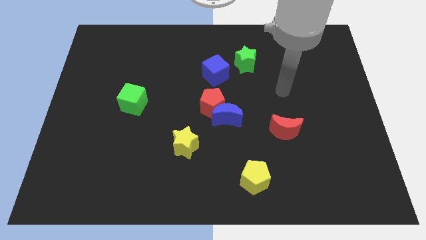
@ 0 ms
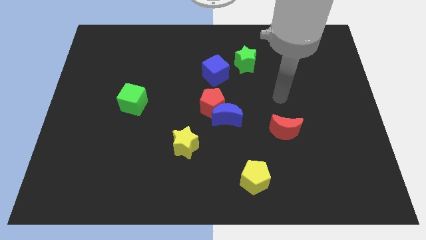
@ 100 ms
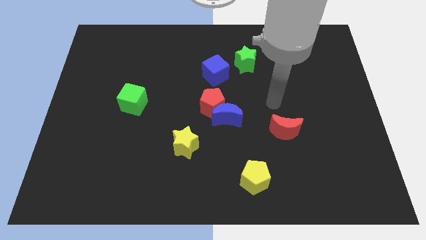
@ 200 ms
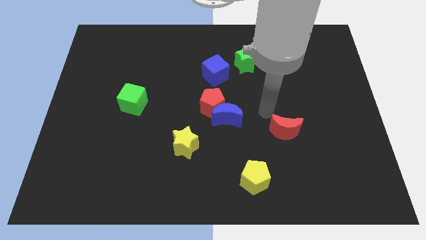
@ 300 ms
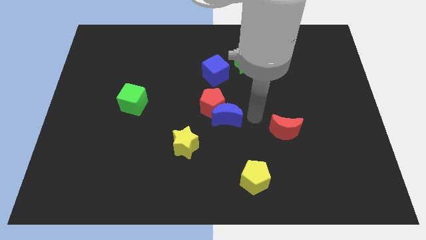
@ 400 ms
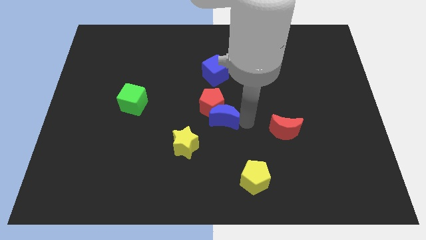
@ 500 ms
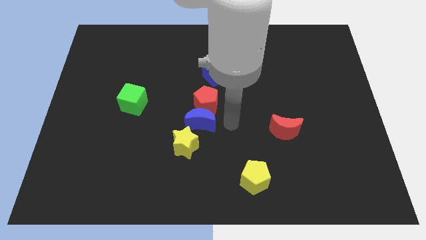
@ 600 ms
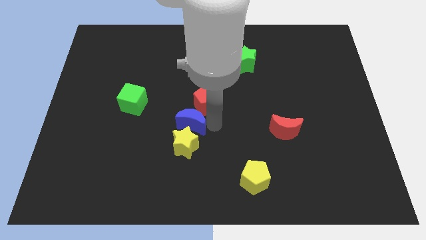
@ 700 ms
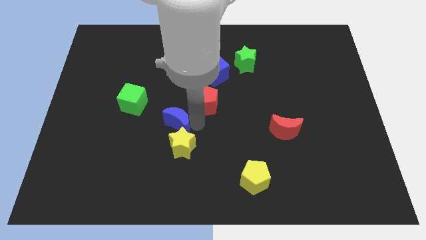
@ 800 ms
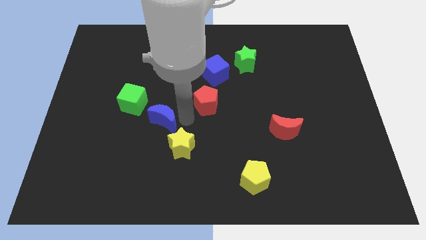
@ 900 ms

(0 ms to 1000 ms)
separate the red pentagon from the blue moon

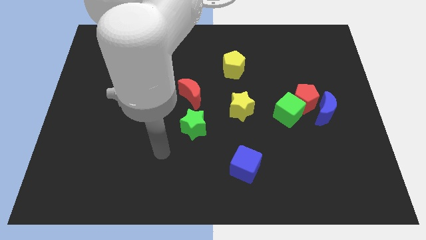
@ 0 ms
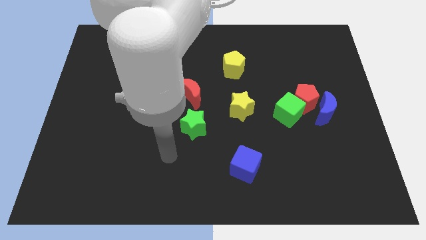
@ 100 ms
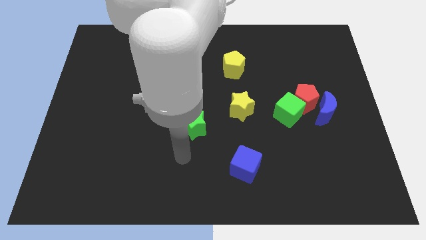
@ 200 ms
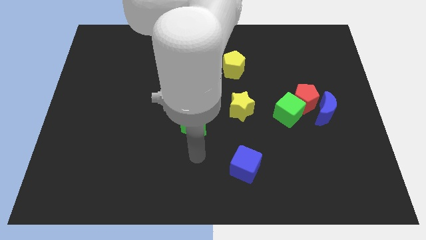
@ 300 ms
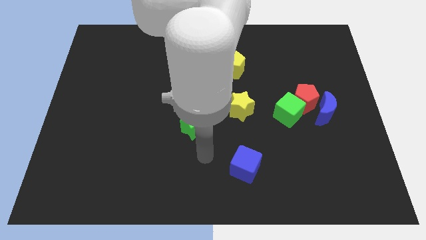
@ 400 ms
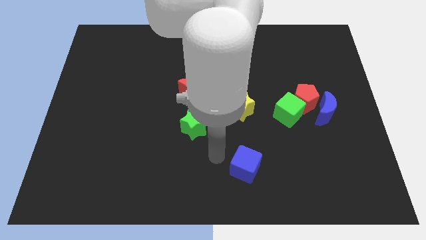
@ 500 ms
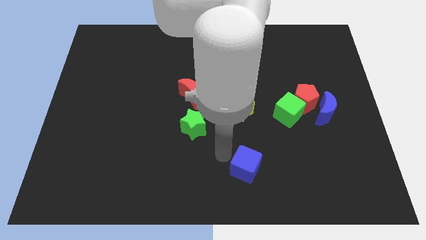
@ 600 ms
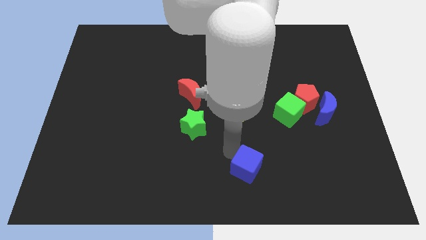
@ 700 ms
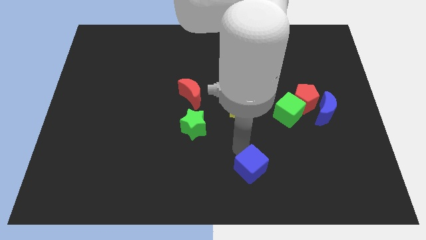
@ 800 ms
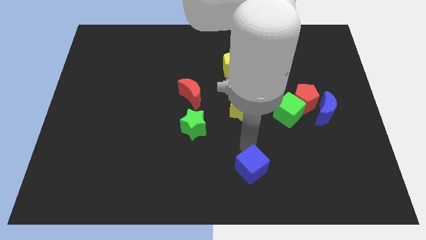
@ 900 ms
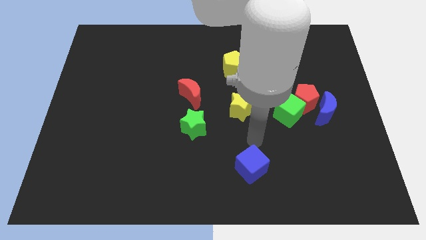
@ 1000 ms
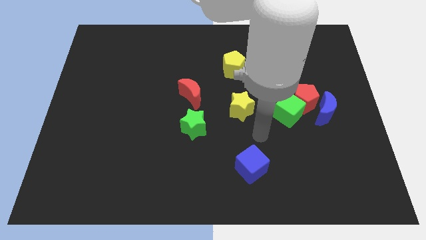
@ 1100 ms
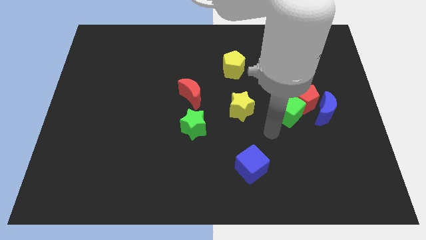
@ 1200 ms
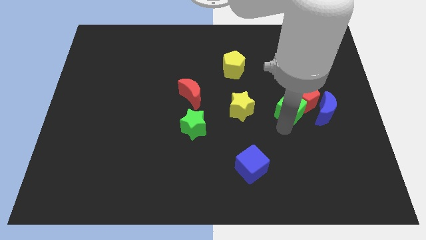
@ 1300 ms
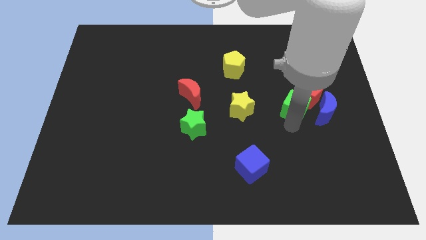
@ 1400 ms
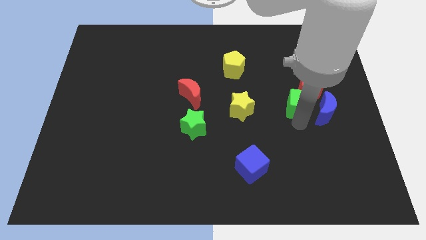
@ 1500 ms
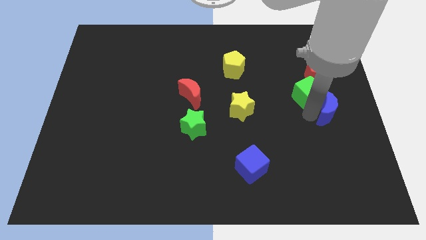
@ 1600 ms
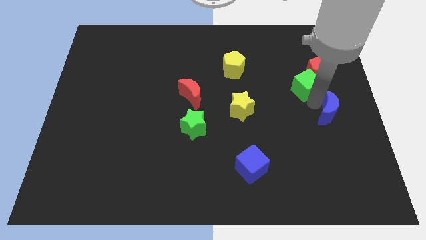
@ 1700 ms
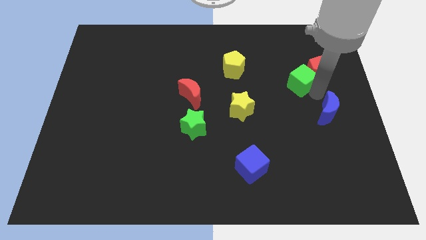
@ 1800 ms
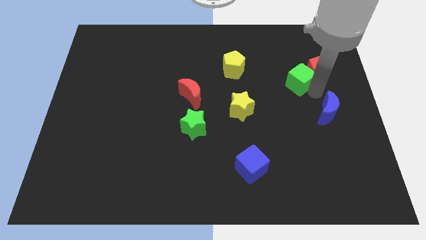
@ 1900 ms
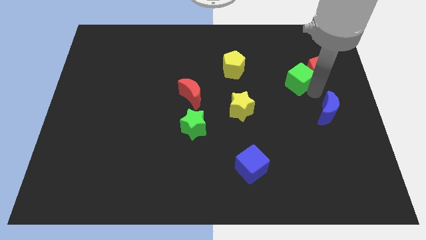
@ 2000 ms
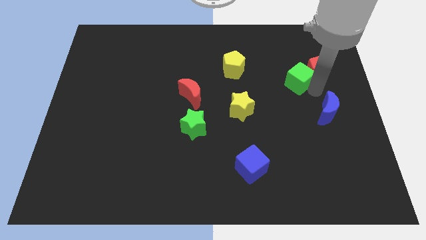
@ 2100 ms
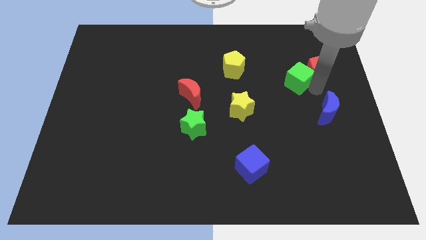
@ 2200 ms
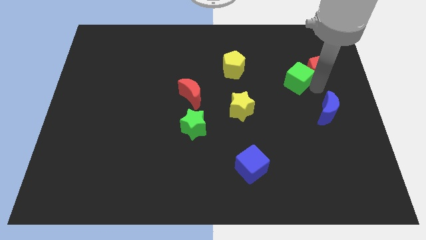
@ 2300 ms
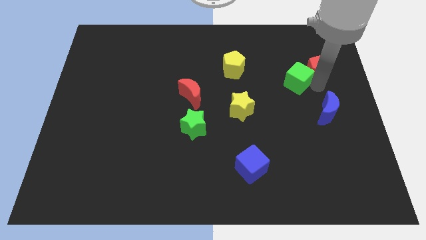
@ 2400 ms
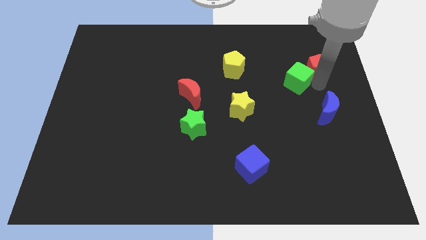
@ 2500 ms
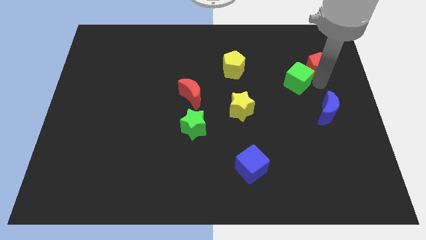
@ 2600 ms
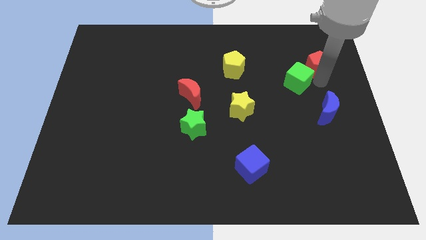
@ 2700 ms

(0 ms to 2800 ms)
move the red pentagon away from the green cube and blue moon

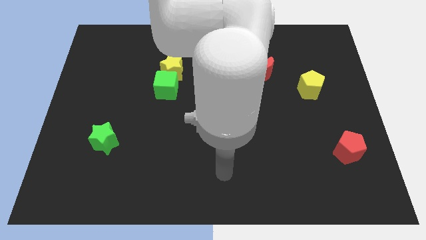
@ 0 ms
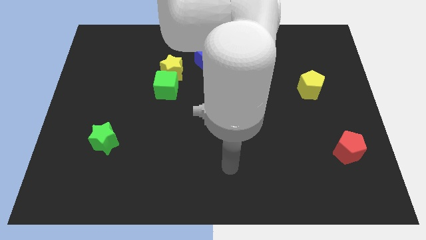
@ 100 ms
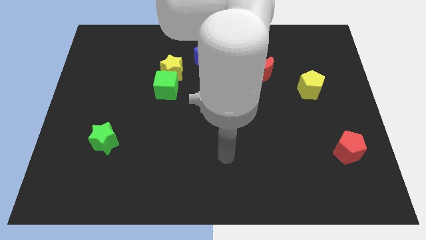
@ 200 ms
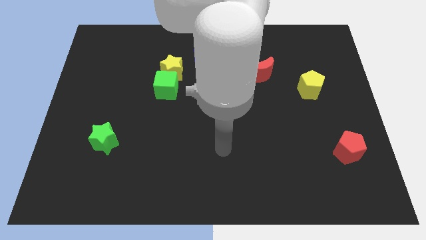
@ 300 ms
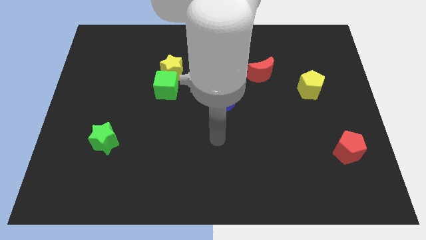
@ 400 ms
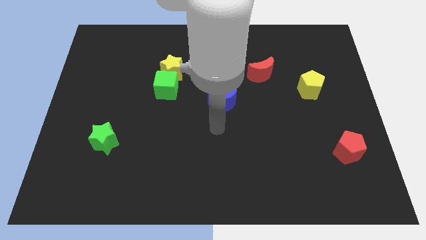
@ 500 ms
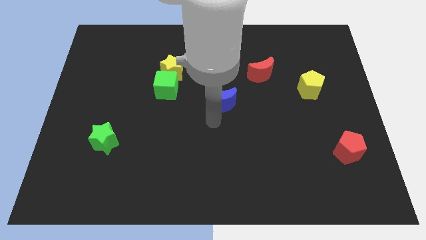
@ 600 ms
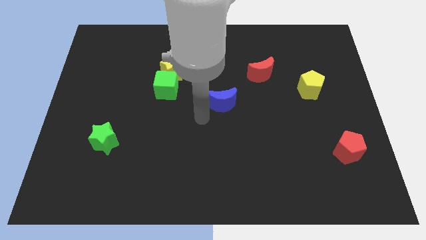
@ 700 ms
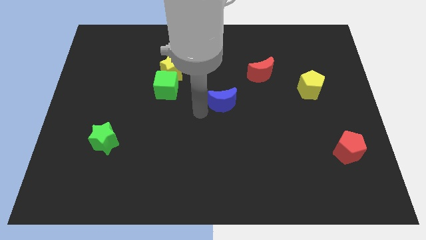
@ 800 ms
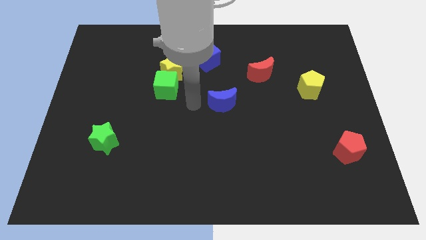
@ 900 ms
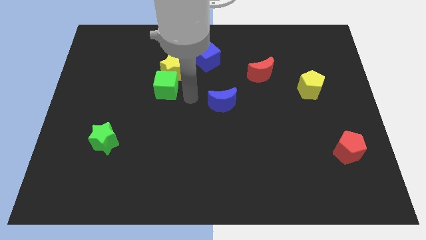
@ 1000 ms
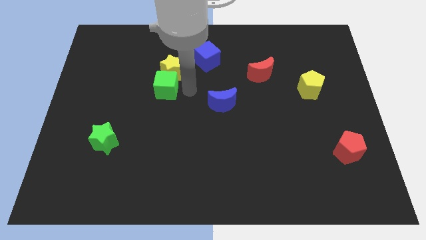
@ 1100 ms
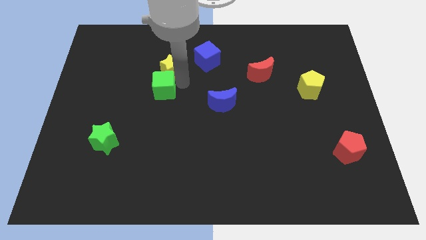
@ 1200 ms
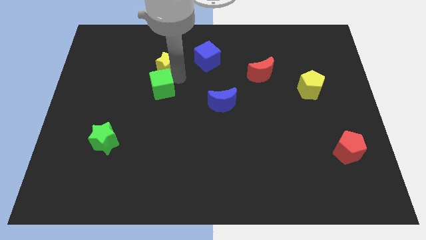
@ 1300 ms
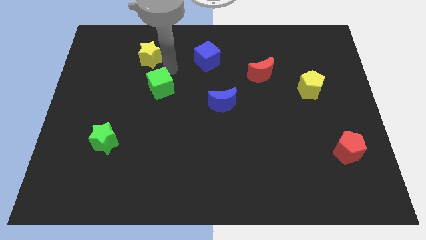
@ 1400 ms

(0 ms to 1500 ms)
move the green cube away from the yellow star

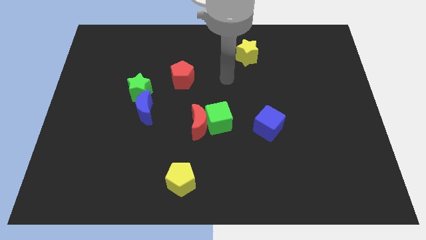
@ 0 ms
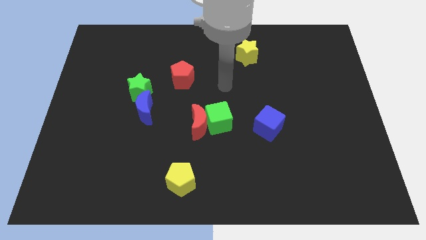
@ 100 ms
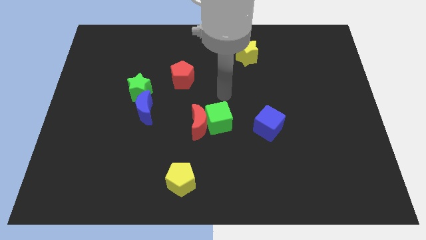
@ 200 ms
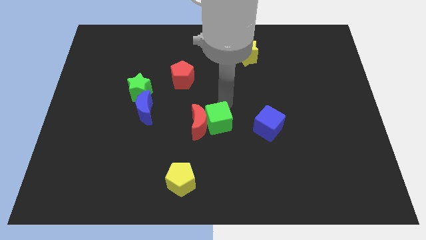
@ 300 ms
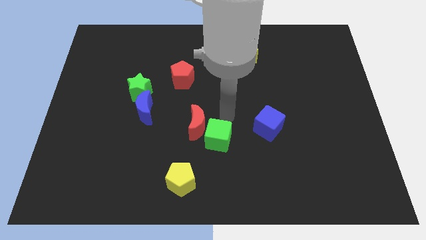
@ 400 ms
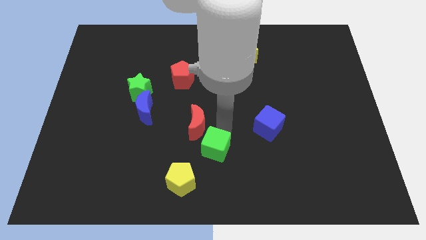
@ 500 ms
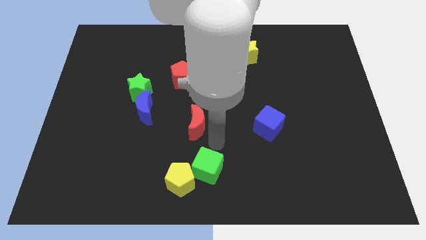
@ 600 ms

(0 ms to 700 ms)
pull the red moon apart from the green cube

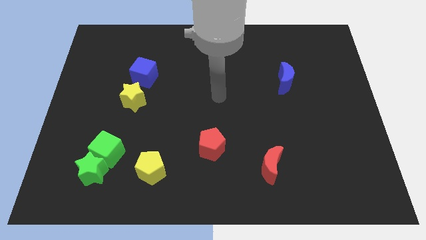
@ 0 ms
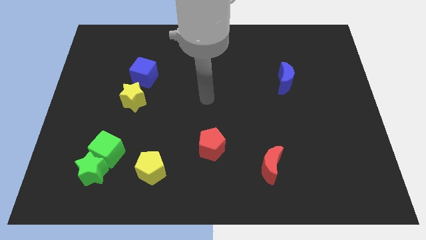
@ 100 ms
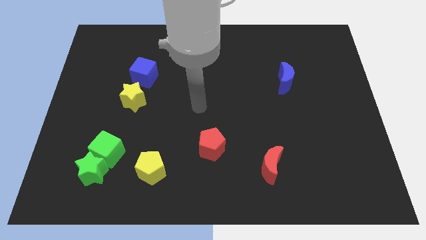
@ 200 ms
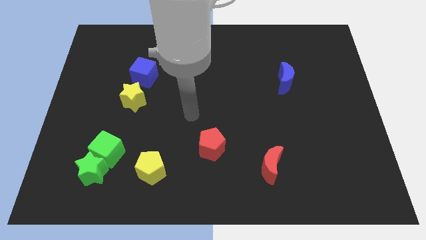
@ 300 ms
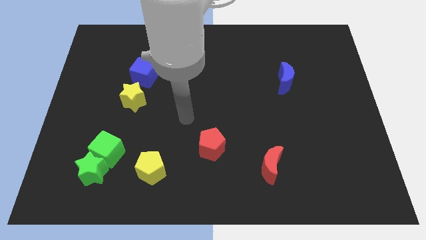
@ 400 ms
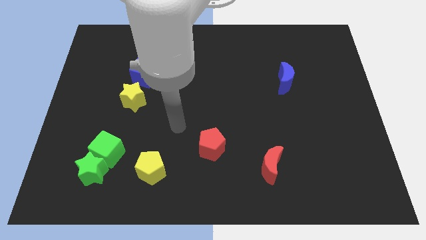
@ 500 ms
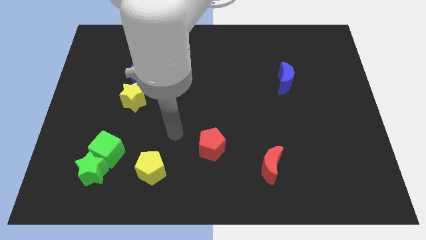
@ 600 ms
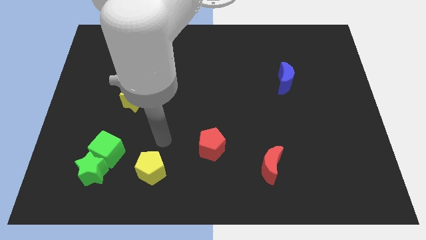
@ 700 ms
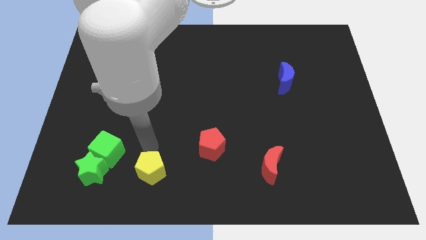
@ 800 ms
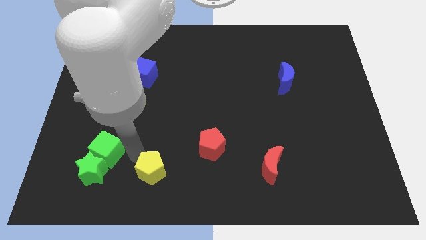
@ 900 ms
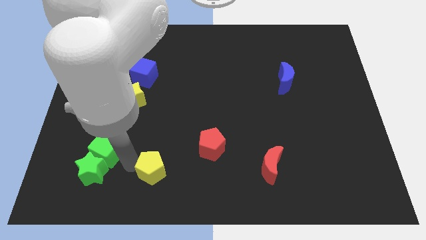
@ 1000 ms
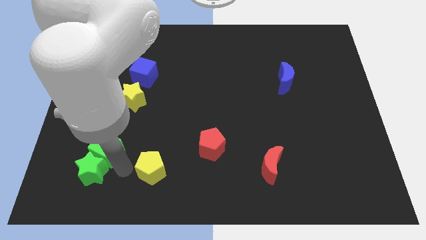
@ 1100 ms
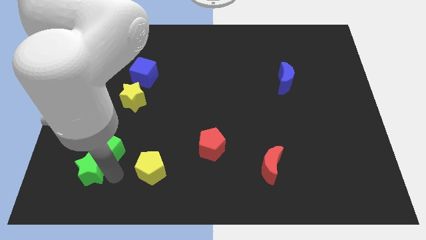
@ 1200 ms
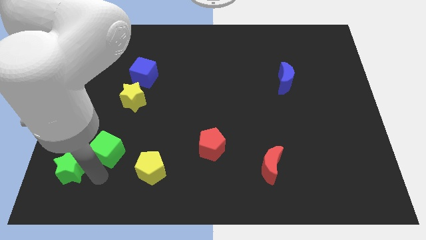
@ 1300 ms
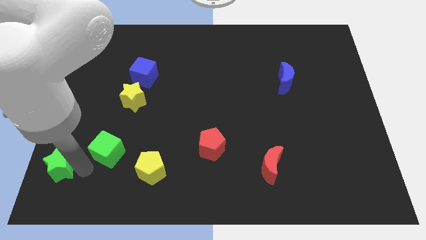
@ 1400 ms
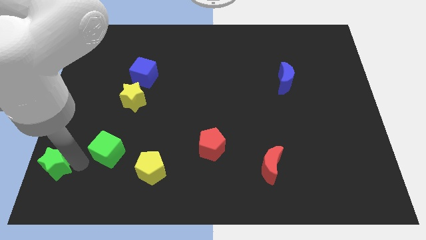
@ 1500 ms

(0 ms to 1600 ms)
pull the green cube apart from the green star

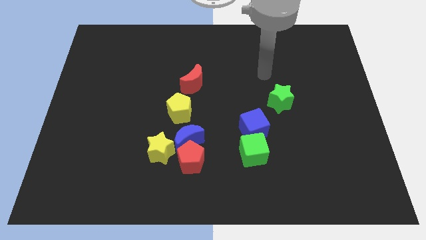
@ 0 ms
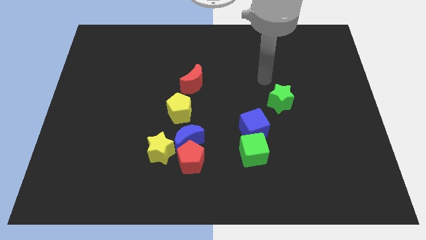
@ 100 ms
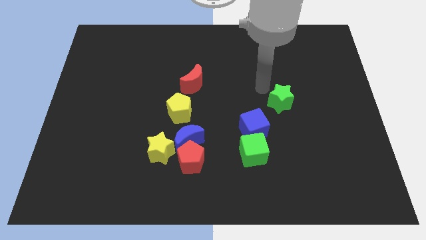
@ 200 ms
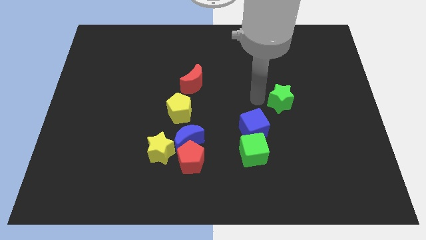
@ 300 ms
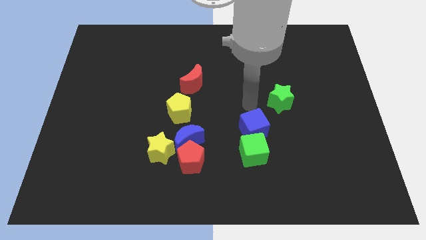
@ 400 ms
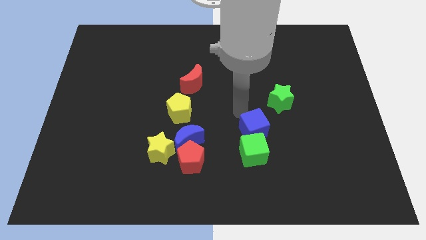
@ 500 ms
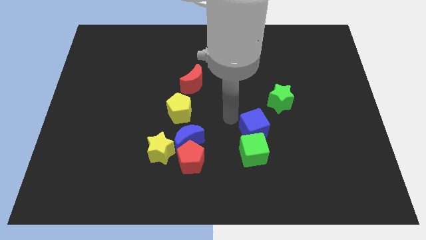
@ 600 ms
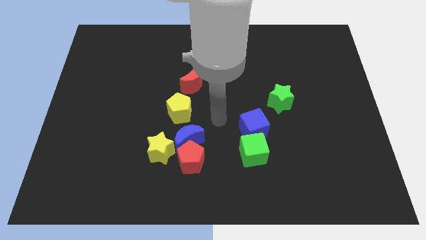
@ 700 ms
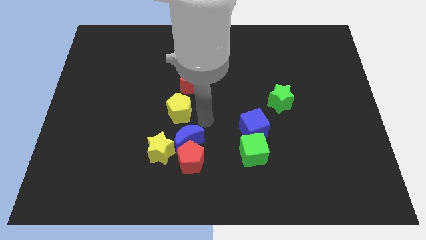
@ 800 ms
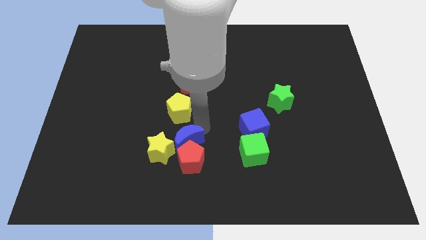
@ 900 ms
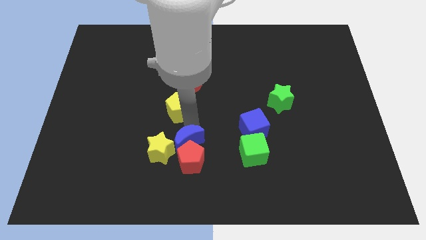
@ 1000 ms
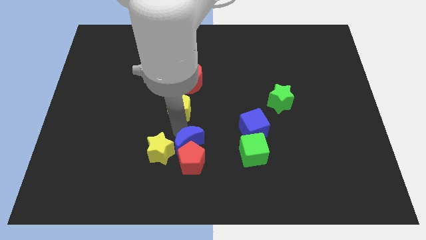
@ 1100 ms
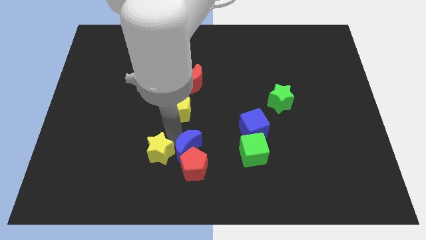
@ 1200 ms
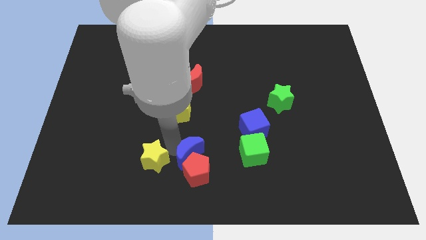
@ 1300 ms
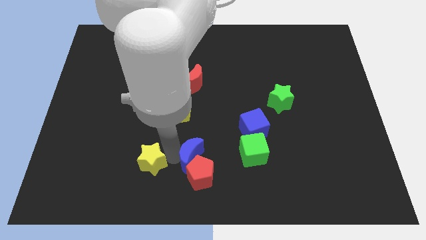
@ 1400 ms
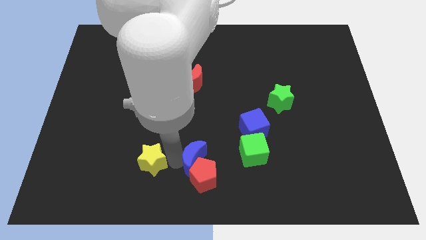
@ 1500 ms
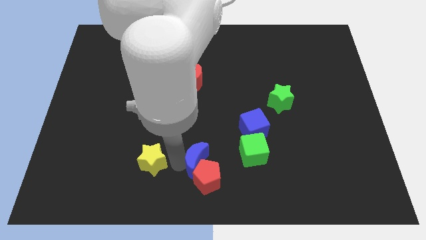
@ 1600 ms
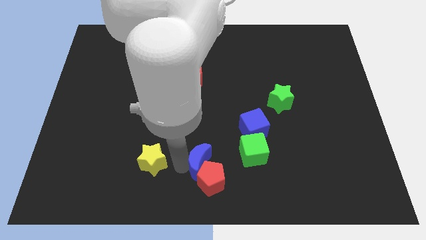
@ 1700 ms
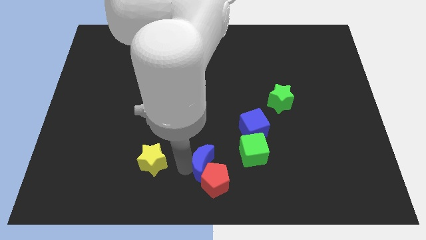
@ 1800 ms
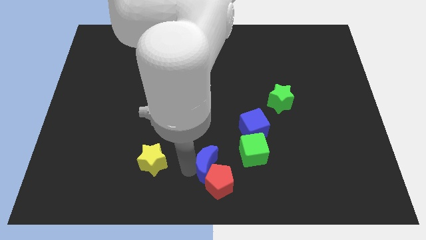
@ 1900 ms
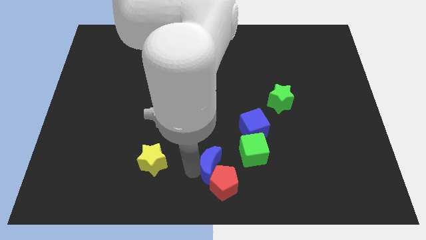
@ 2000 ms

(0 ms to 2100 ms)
pull the red pentagon apart from the blue moon and yellow star
